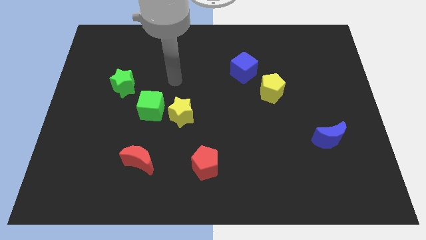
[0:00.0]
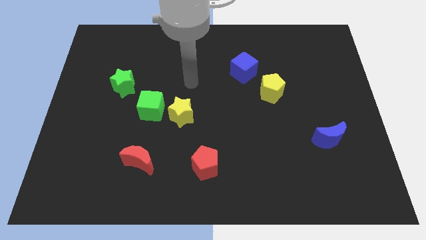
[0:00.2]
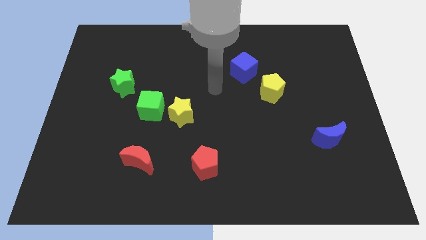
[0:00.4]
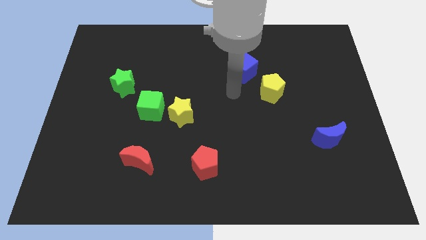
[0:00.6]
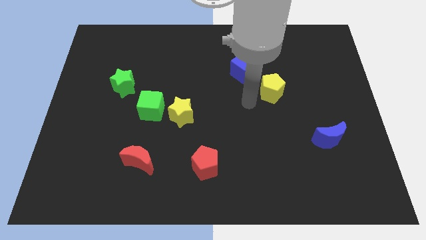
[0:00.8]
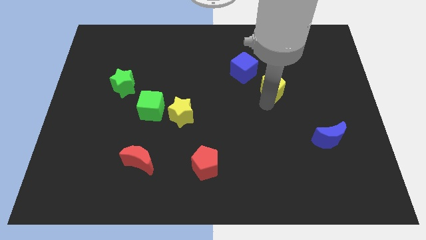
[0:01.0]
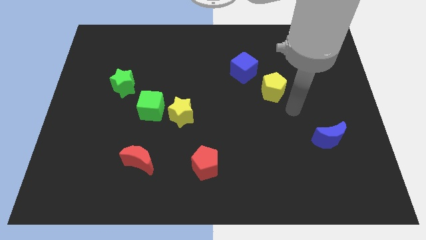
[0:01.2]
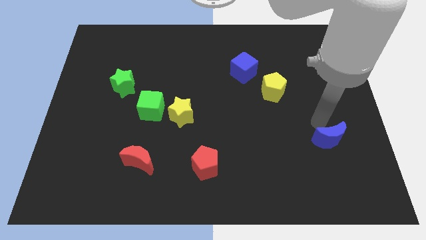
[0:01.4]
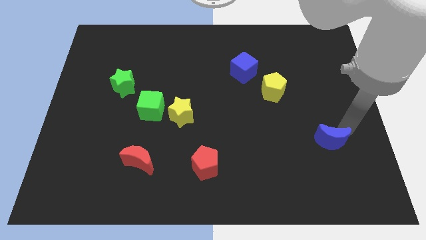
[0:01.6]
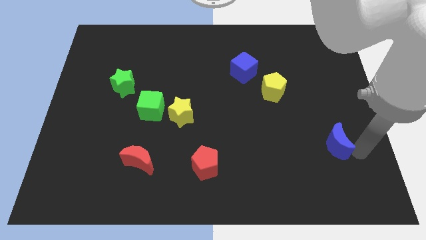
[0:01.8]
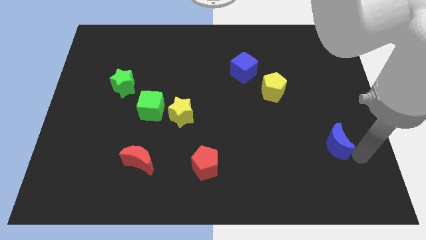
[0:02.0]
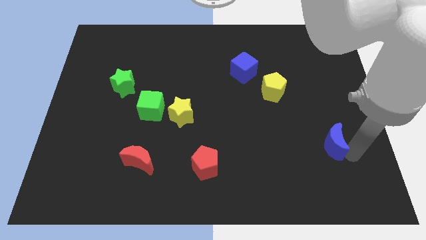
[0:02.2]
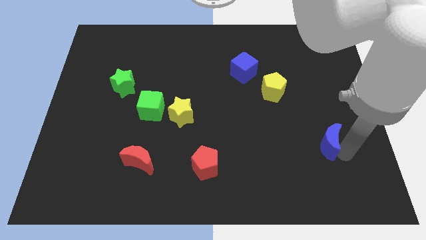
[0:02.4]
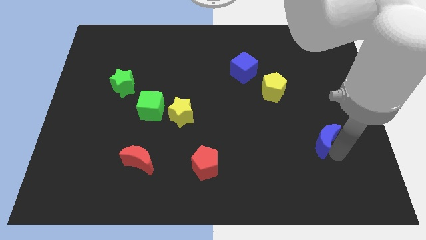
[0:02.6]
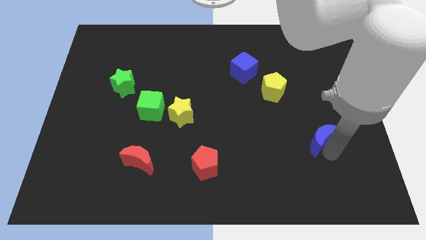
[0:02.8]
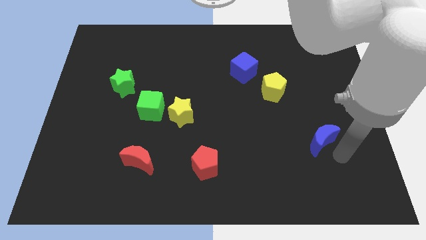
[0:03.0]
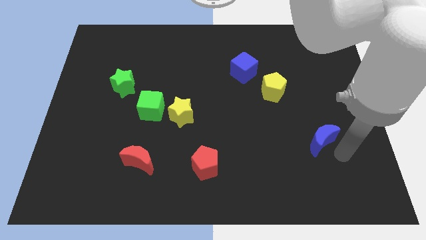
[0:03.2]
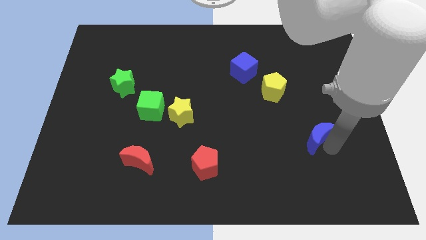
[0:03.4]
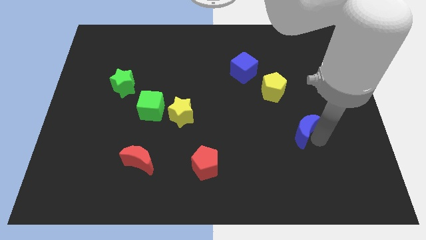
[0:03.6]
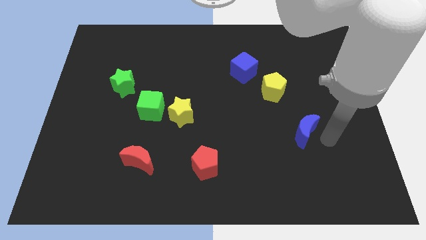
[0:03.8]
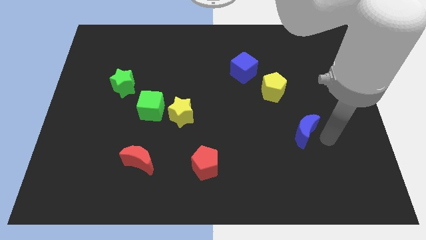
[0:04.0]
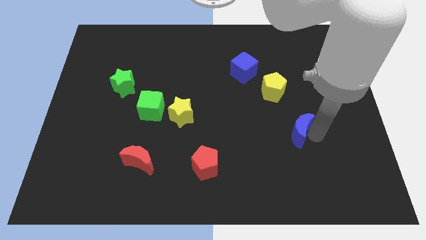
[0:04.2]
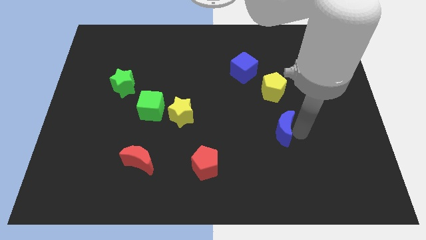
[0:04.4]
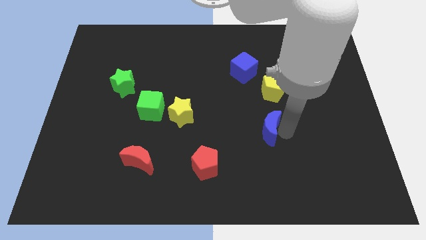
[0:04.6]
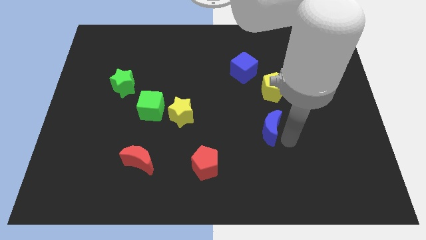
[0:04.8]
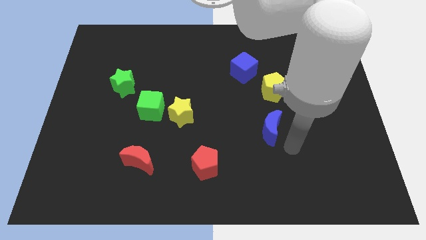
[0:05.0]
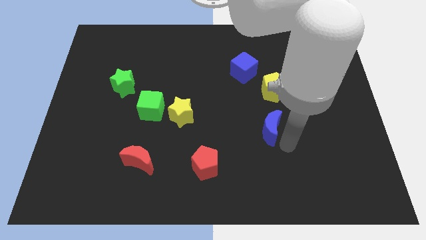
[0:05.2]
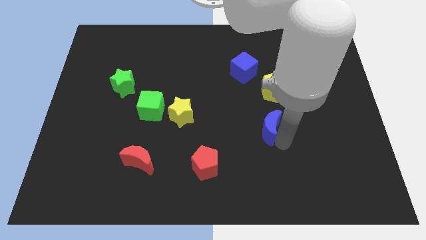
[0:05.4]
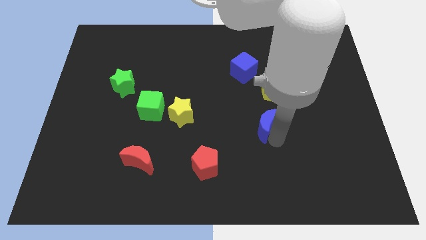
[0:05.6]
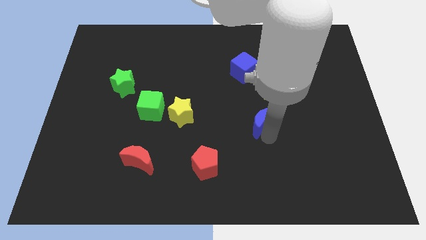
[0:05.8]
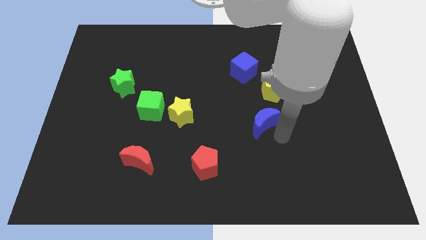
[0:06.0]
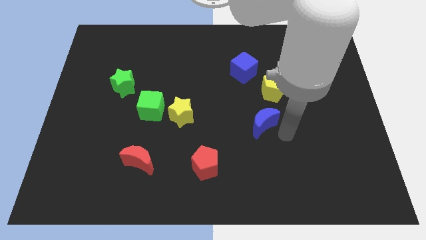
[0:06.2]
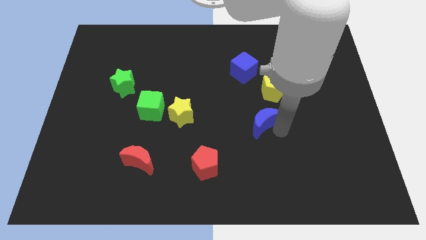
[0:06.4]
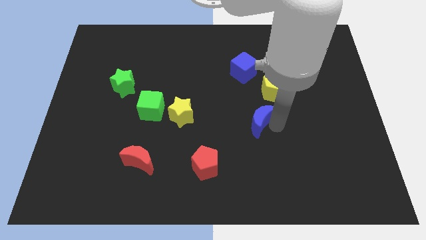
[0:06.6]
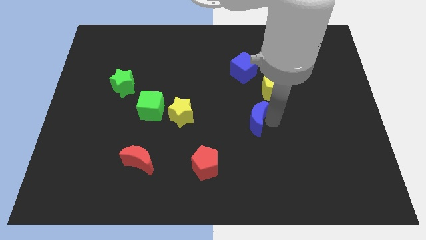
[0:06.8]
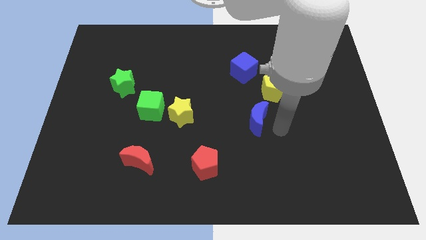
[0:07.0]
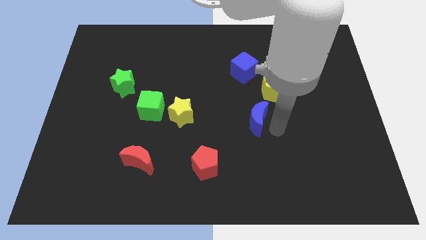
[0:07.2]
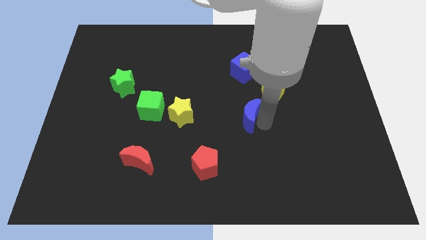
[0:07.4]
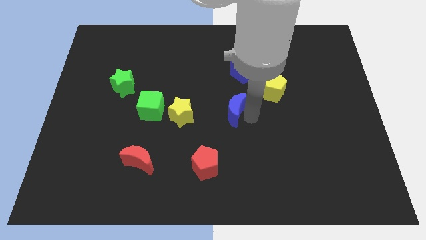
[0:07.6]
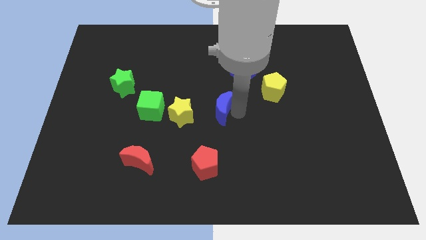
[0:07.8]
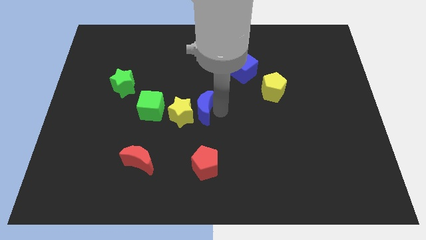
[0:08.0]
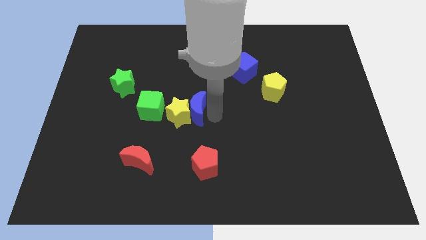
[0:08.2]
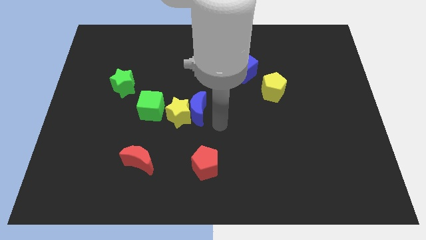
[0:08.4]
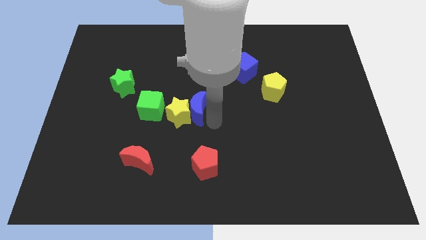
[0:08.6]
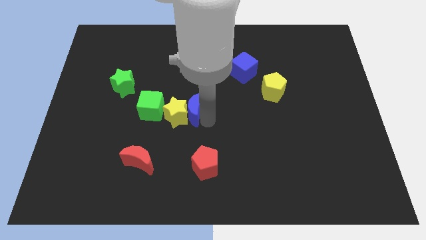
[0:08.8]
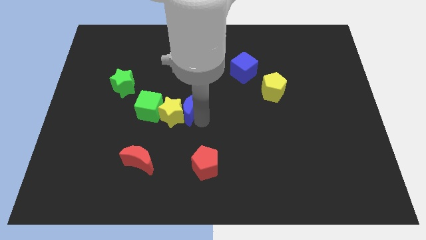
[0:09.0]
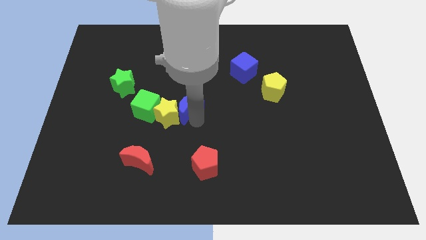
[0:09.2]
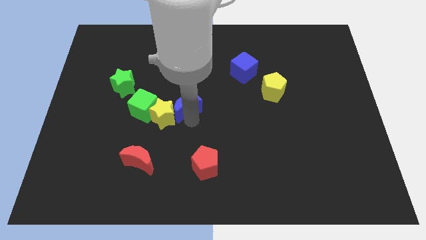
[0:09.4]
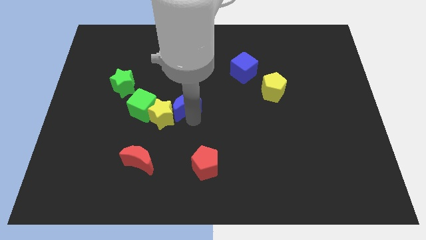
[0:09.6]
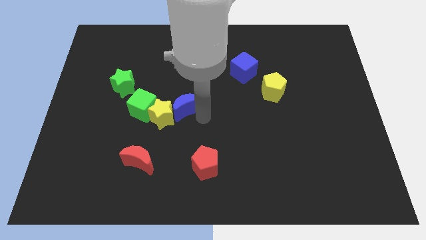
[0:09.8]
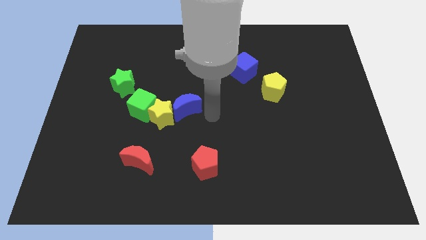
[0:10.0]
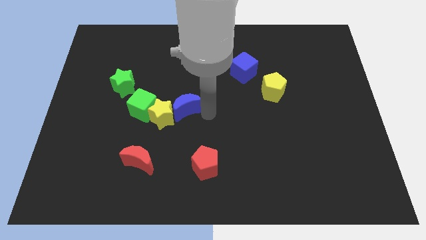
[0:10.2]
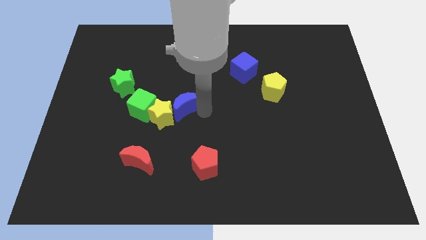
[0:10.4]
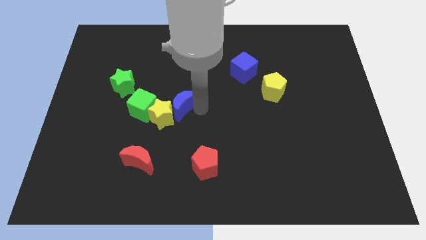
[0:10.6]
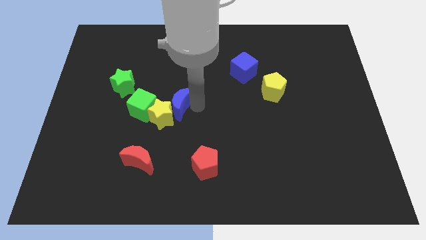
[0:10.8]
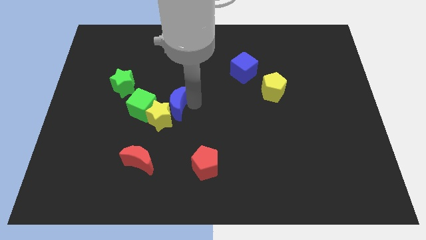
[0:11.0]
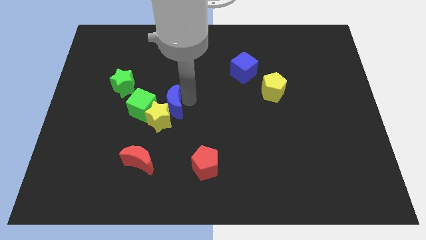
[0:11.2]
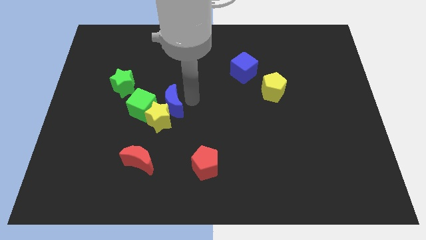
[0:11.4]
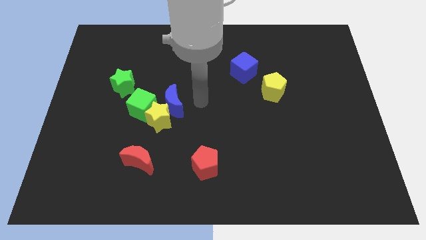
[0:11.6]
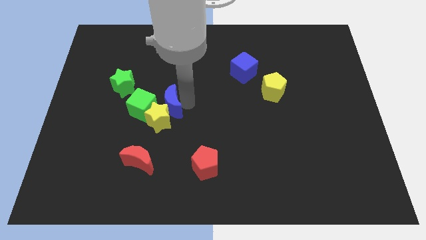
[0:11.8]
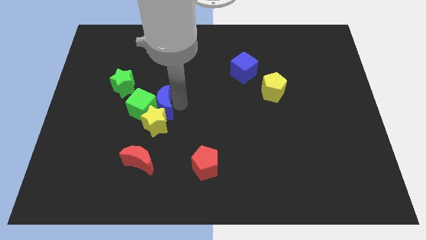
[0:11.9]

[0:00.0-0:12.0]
put the blue moon to the green cube

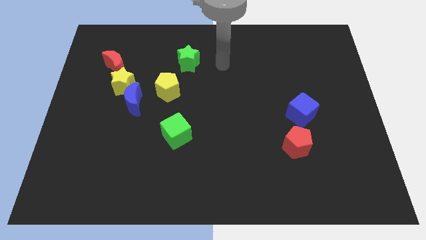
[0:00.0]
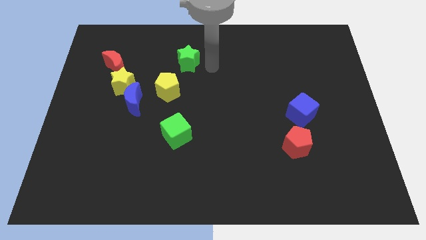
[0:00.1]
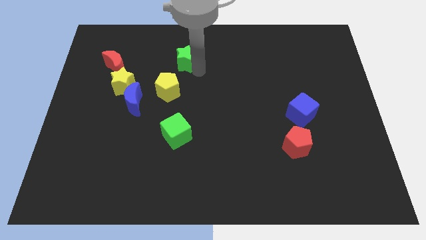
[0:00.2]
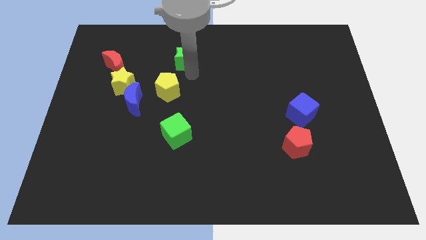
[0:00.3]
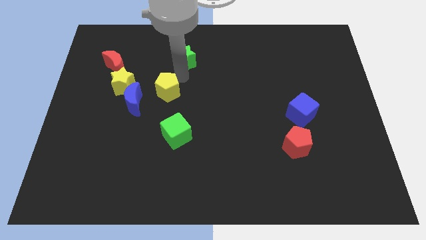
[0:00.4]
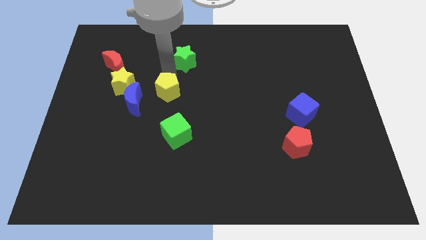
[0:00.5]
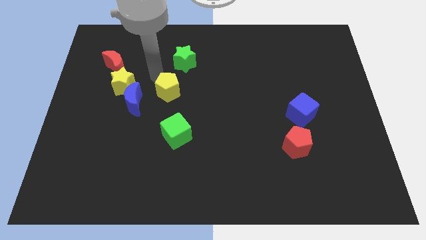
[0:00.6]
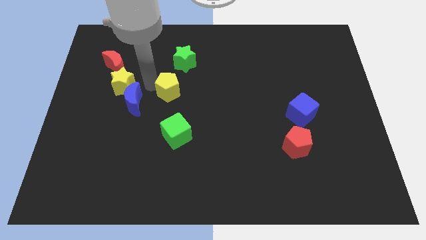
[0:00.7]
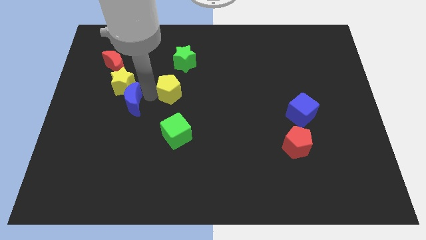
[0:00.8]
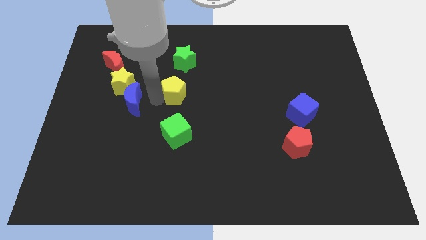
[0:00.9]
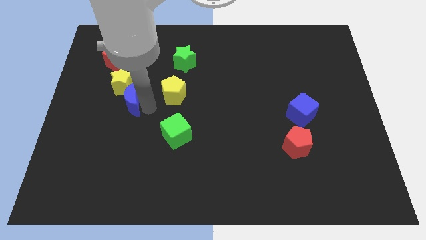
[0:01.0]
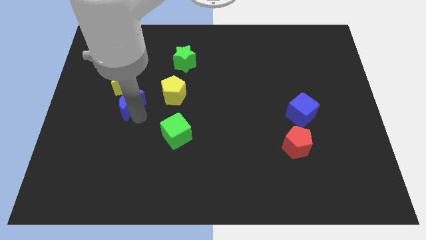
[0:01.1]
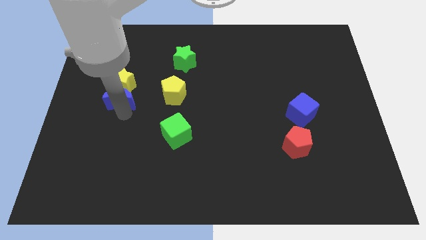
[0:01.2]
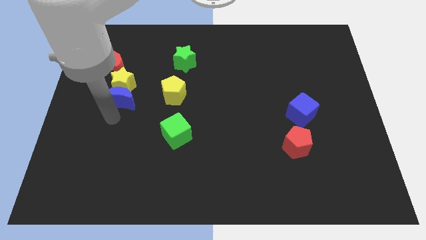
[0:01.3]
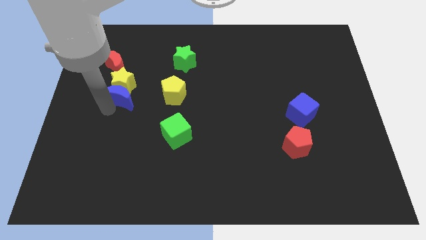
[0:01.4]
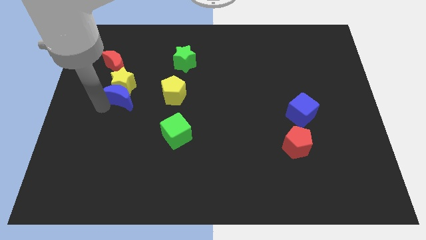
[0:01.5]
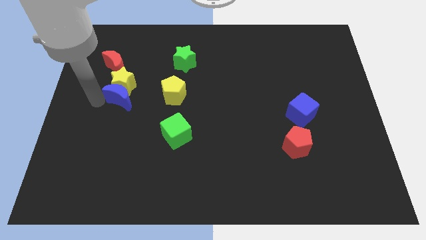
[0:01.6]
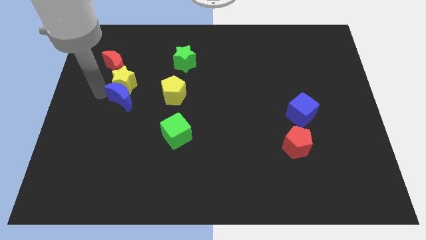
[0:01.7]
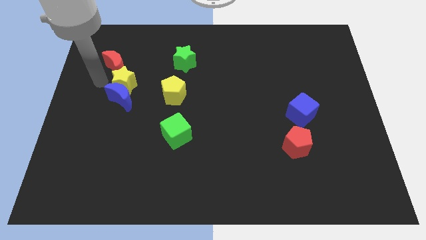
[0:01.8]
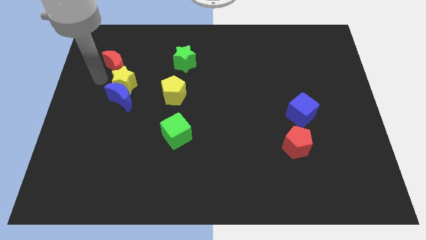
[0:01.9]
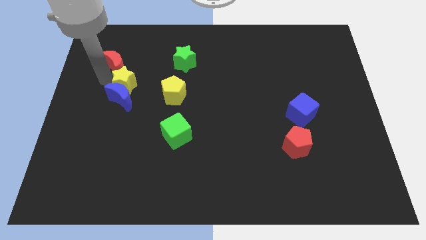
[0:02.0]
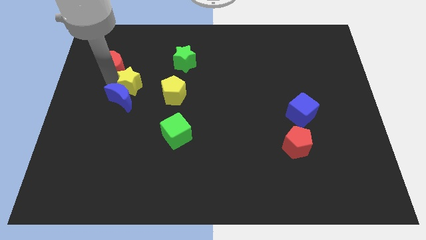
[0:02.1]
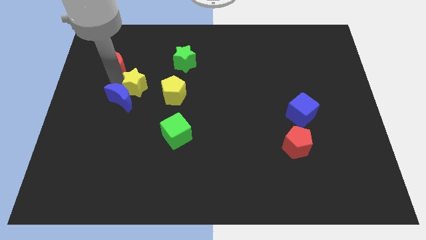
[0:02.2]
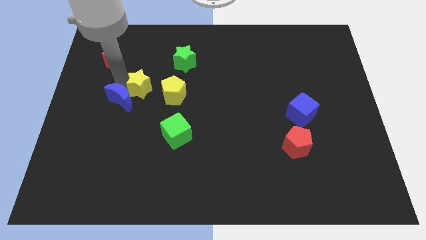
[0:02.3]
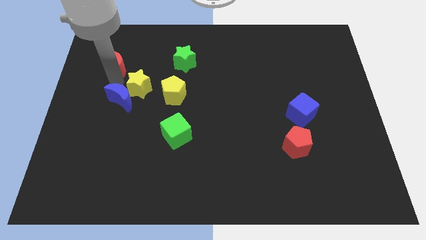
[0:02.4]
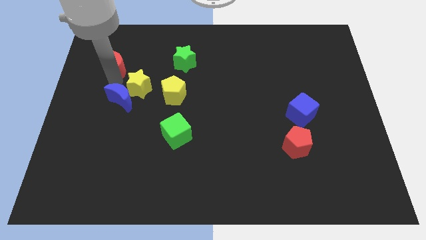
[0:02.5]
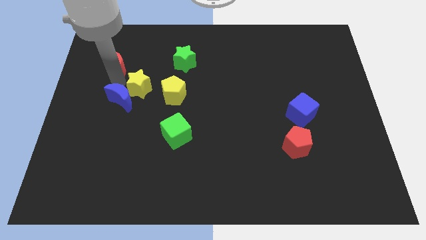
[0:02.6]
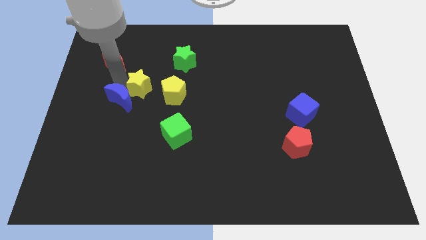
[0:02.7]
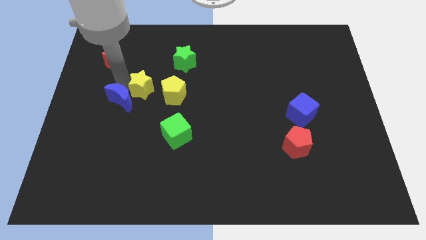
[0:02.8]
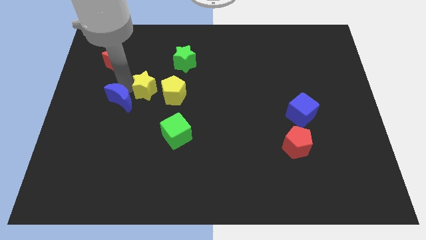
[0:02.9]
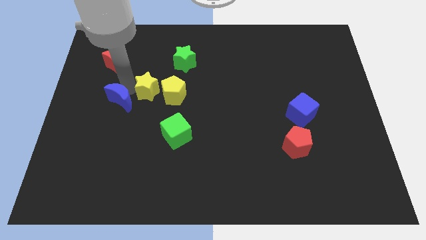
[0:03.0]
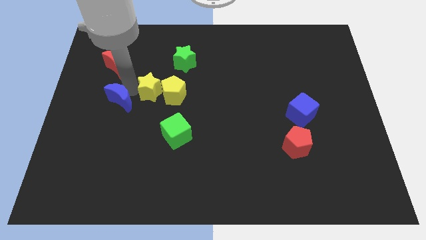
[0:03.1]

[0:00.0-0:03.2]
move the yellow star to the yellow pentagon
